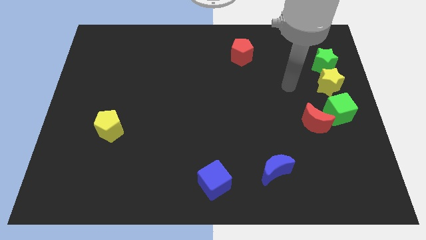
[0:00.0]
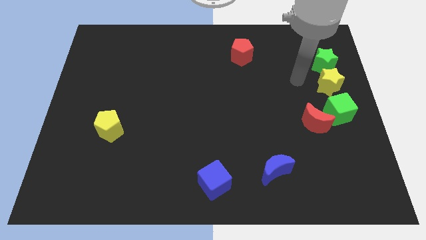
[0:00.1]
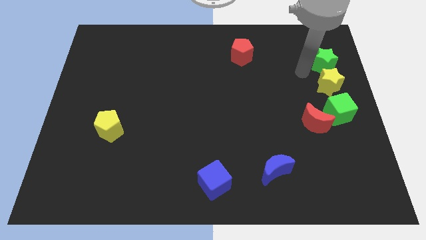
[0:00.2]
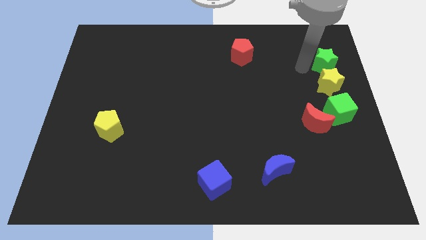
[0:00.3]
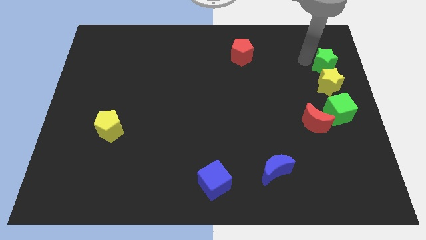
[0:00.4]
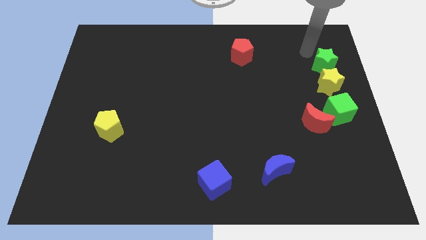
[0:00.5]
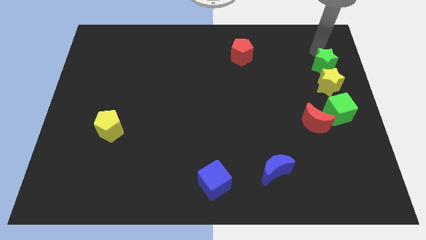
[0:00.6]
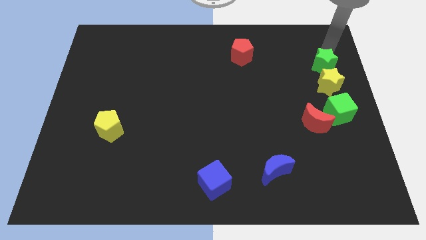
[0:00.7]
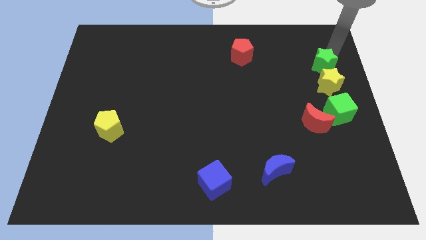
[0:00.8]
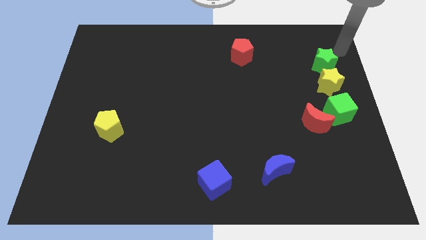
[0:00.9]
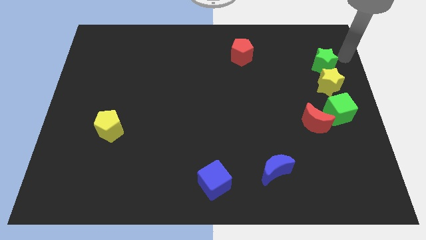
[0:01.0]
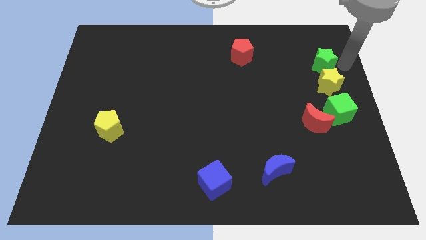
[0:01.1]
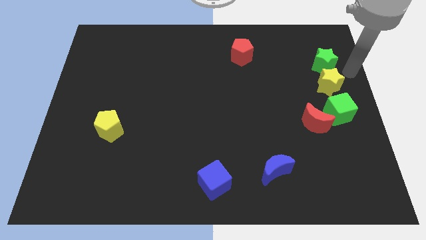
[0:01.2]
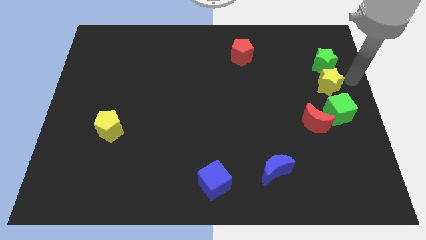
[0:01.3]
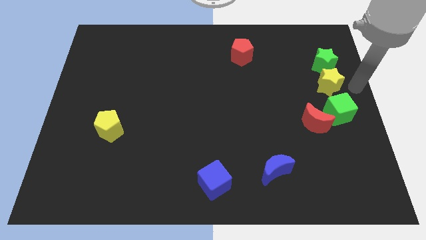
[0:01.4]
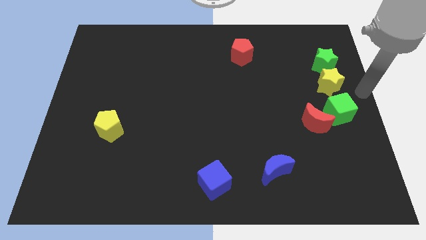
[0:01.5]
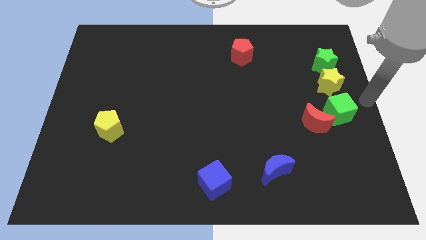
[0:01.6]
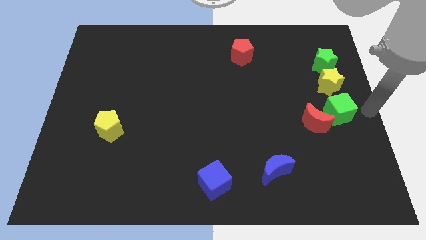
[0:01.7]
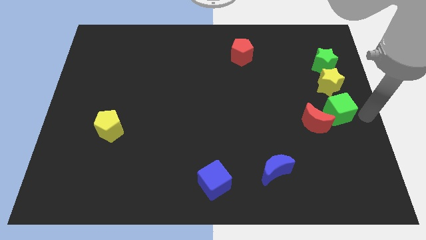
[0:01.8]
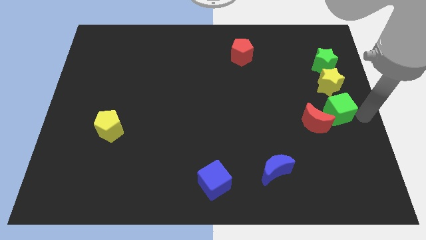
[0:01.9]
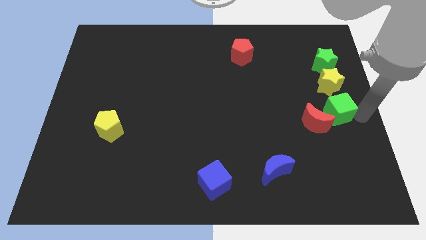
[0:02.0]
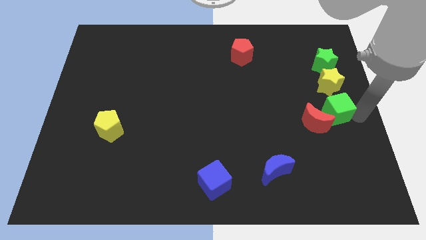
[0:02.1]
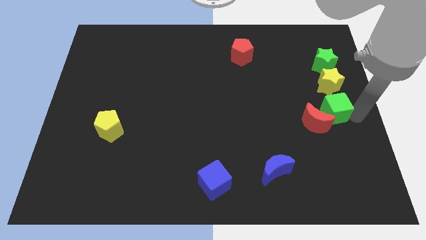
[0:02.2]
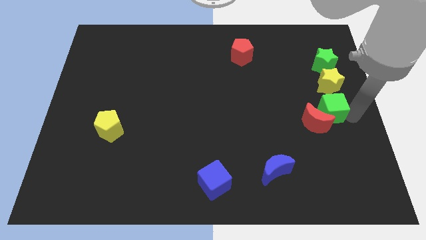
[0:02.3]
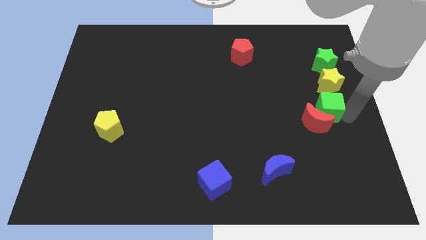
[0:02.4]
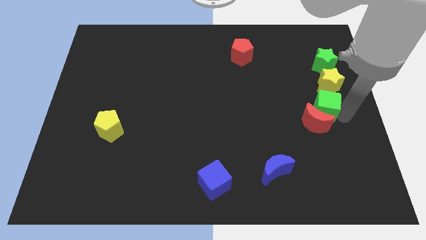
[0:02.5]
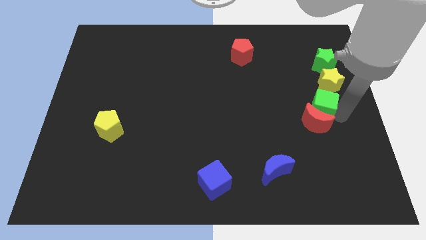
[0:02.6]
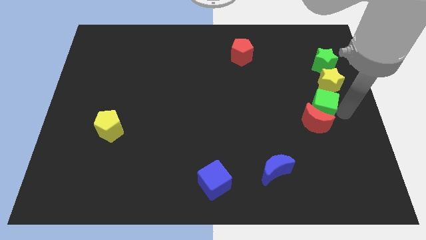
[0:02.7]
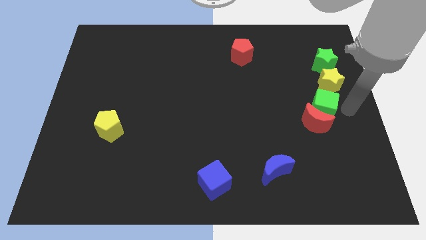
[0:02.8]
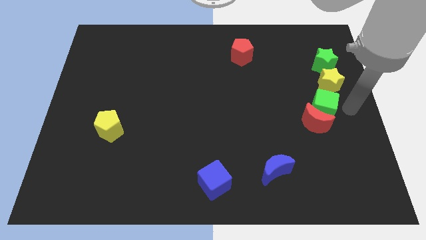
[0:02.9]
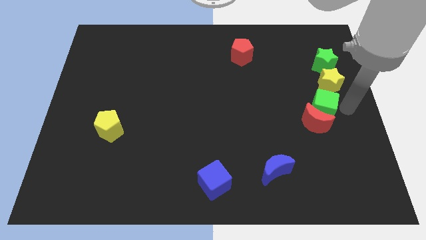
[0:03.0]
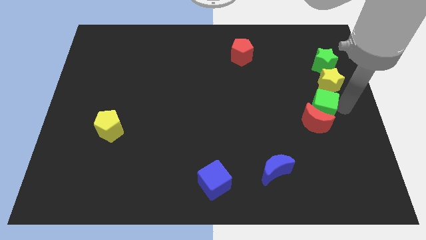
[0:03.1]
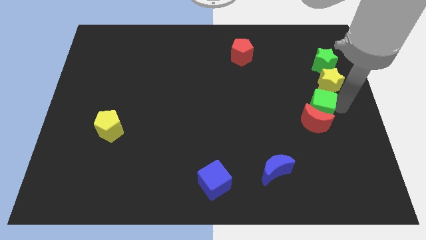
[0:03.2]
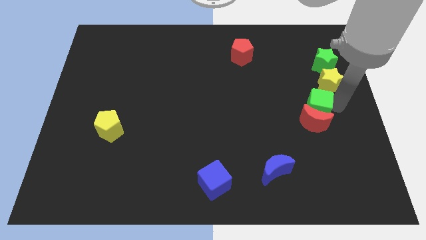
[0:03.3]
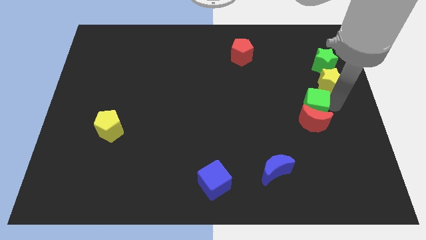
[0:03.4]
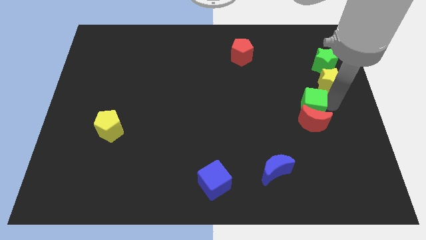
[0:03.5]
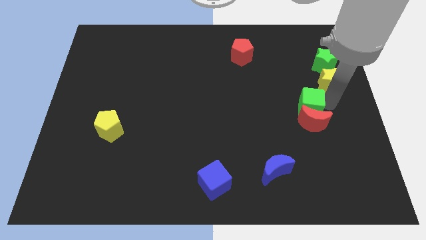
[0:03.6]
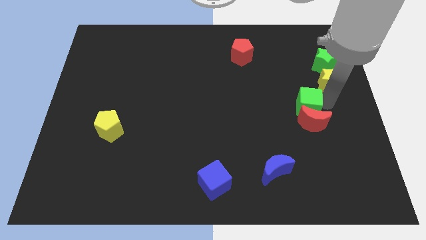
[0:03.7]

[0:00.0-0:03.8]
slide the green cube a bit to the left

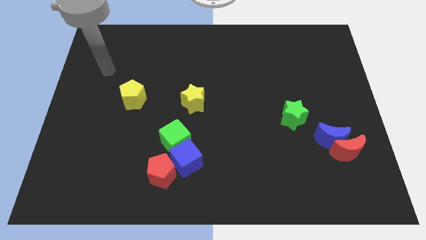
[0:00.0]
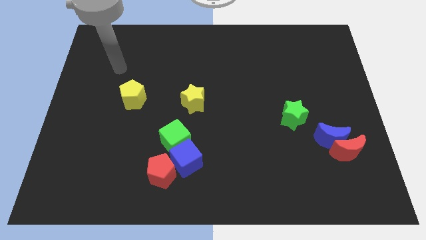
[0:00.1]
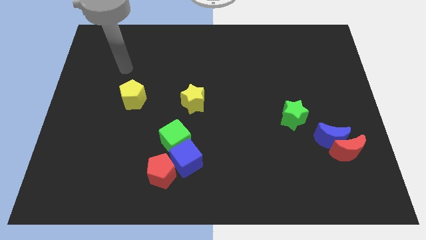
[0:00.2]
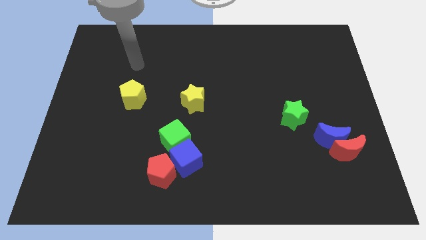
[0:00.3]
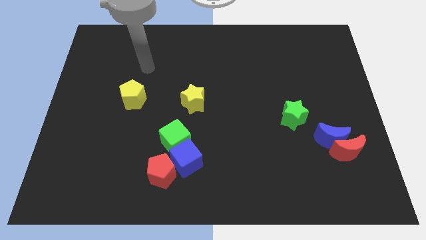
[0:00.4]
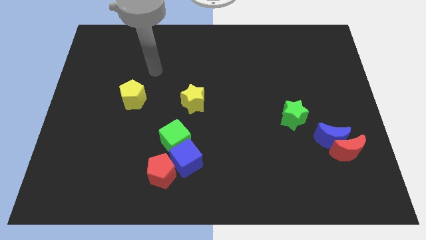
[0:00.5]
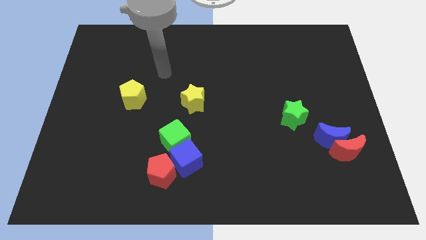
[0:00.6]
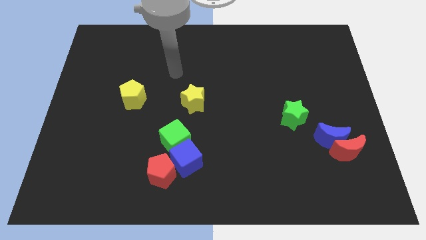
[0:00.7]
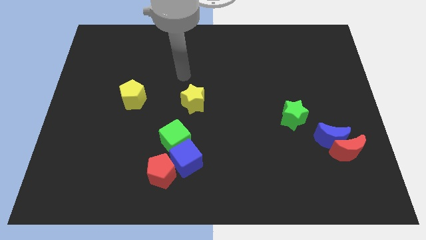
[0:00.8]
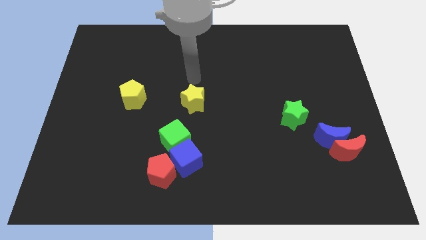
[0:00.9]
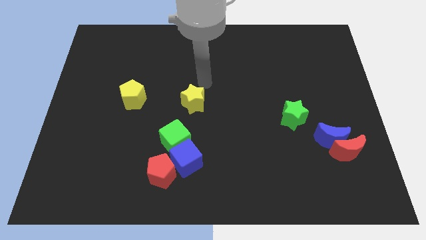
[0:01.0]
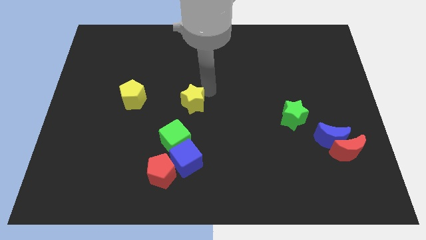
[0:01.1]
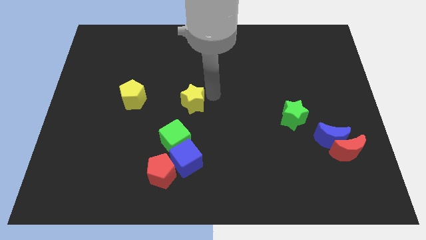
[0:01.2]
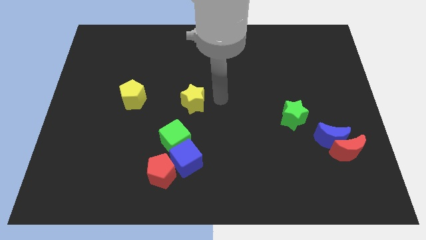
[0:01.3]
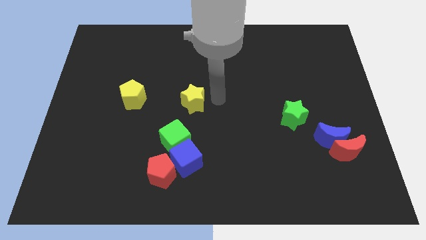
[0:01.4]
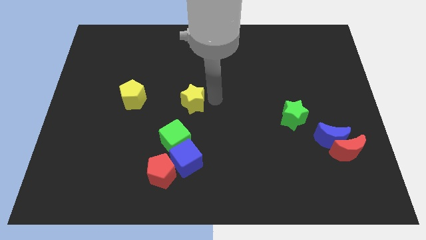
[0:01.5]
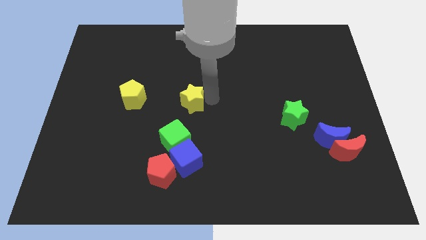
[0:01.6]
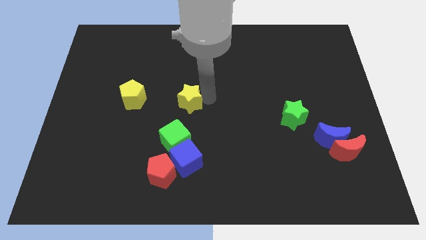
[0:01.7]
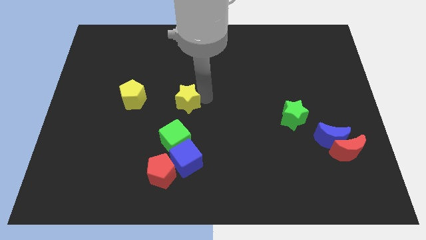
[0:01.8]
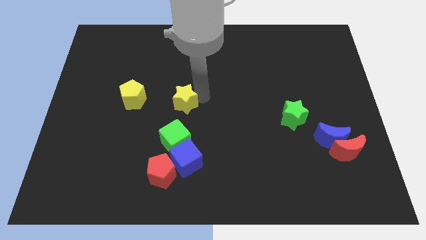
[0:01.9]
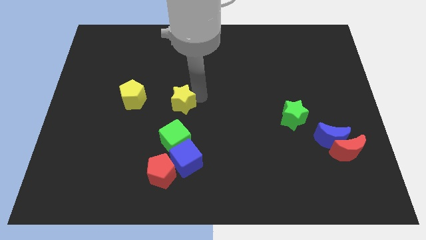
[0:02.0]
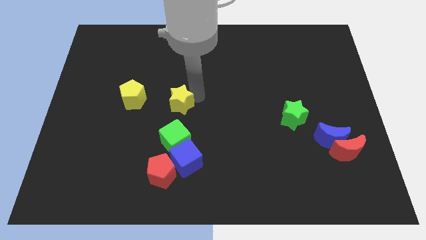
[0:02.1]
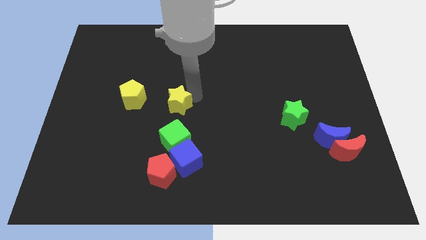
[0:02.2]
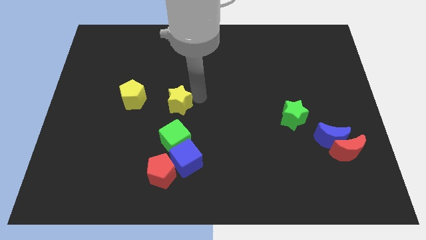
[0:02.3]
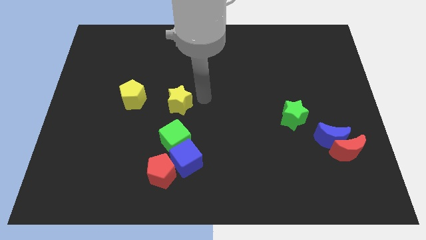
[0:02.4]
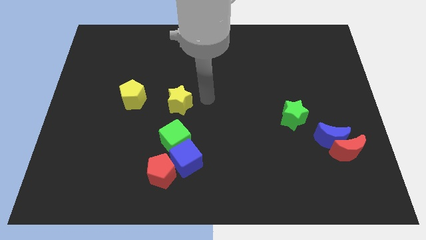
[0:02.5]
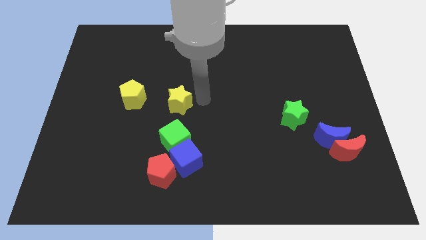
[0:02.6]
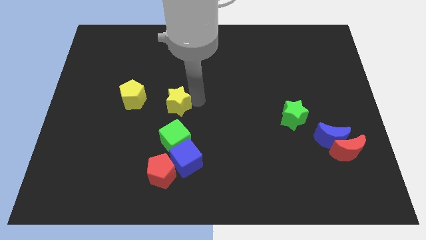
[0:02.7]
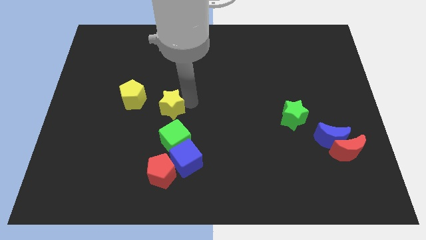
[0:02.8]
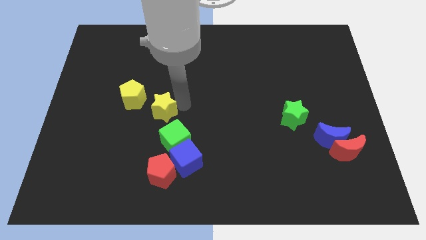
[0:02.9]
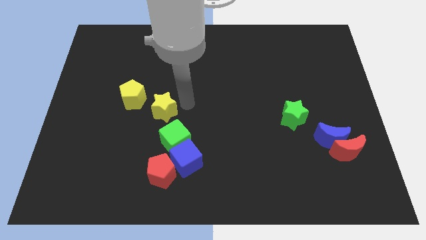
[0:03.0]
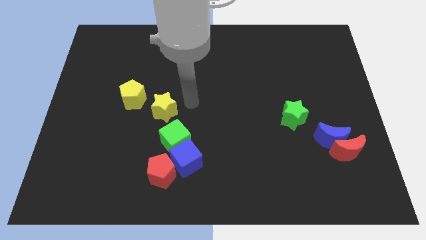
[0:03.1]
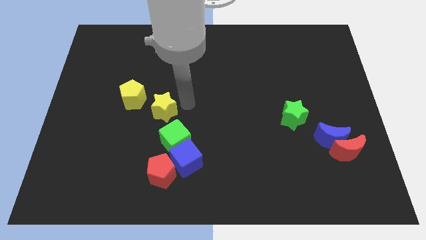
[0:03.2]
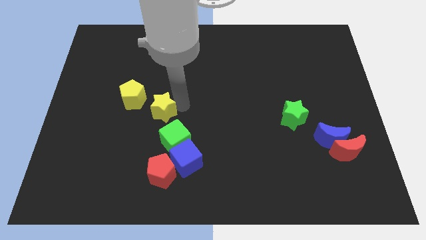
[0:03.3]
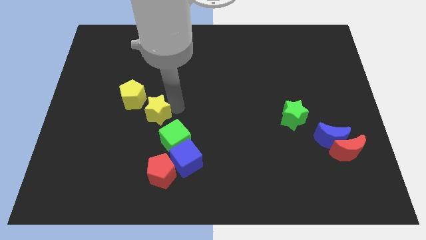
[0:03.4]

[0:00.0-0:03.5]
move the yellow star a little to the left
